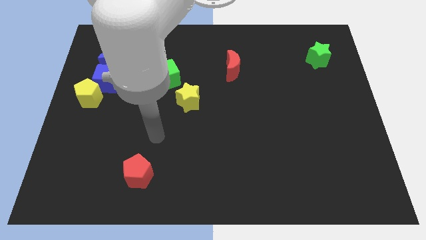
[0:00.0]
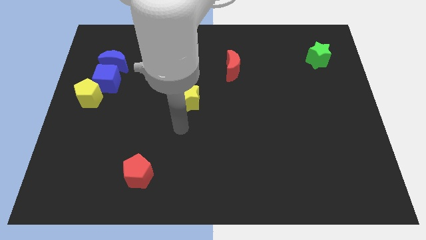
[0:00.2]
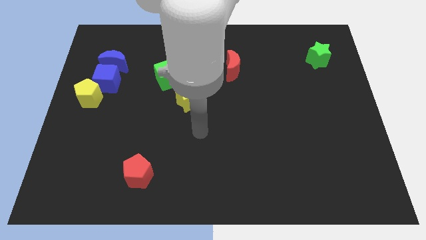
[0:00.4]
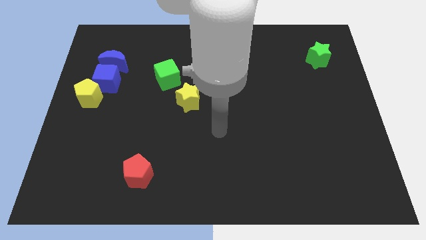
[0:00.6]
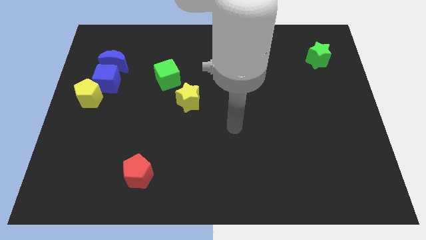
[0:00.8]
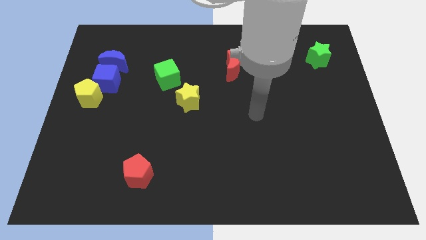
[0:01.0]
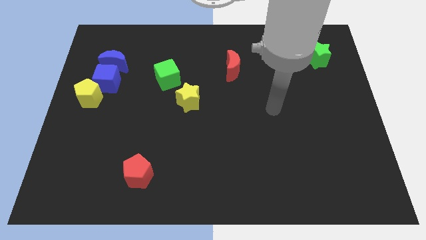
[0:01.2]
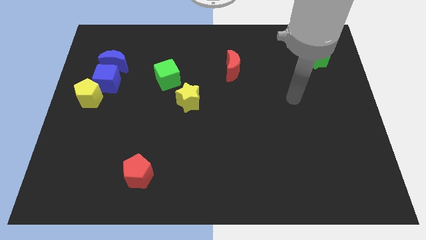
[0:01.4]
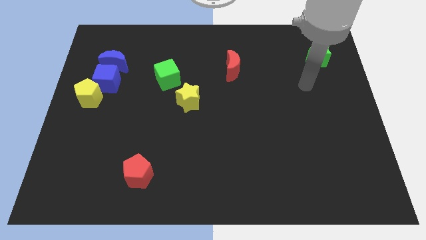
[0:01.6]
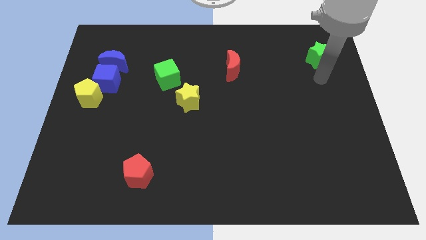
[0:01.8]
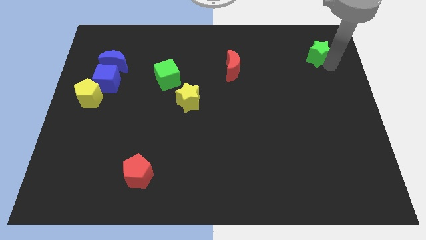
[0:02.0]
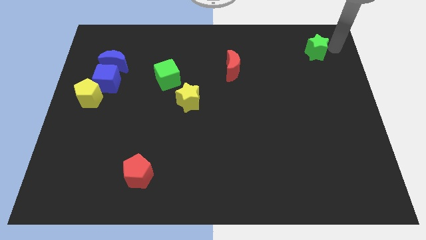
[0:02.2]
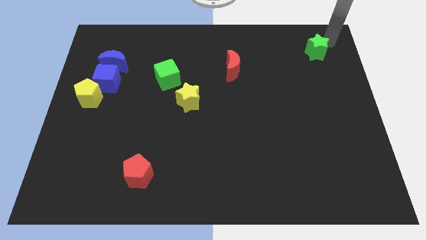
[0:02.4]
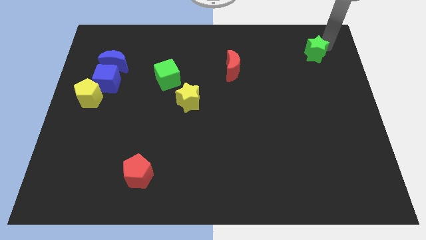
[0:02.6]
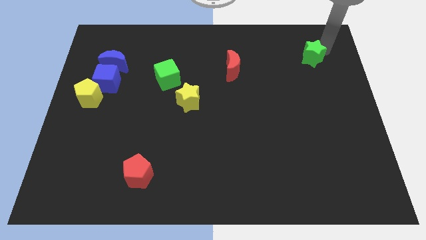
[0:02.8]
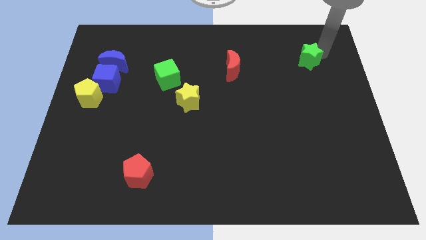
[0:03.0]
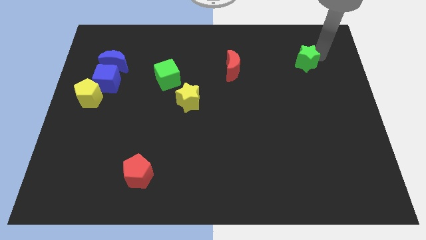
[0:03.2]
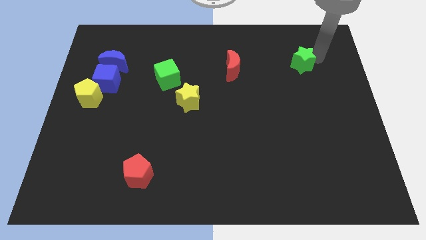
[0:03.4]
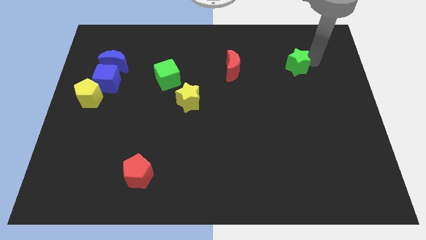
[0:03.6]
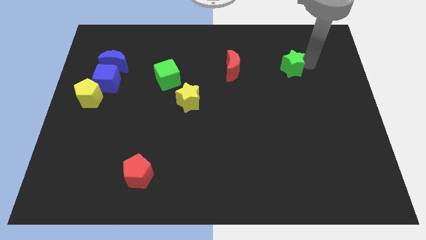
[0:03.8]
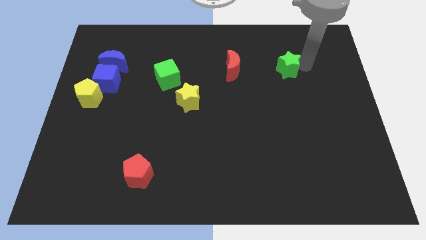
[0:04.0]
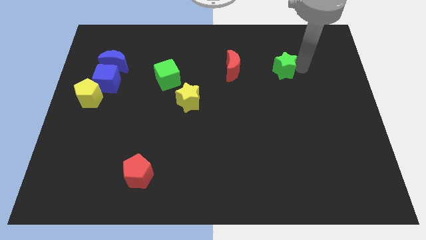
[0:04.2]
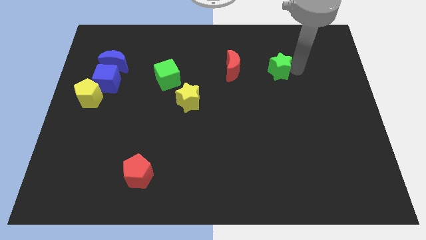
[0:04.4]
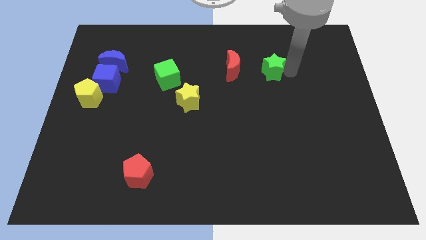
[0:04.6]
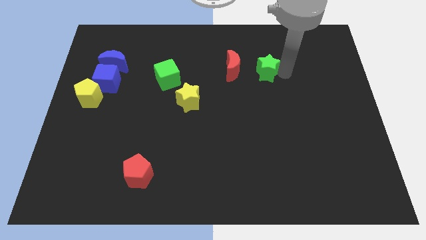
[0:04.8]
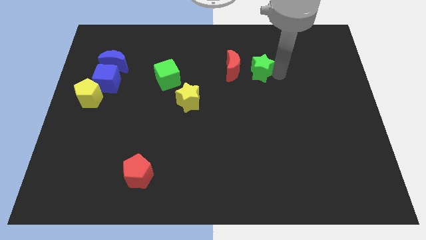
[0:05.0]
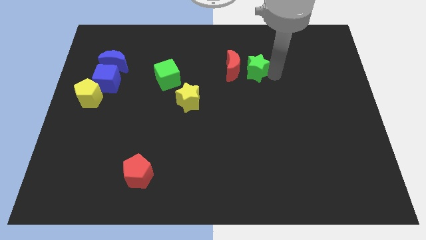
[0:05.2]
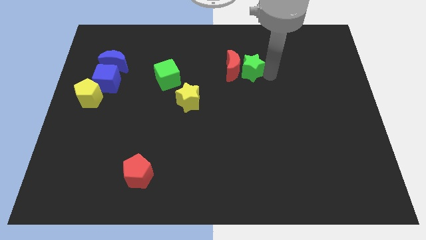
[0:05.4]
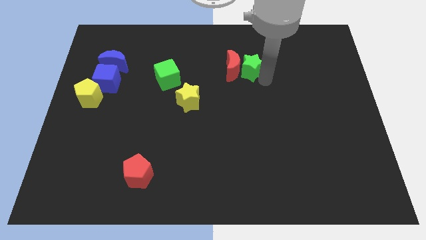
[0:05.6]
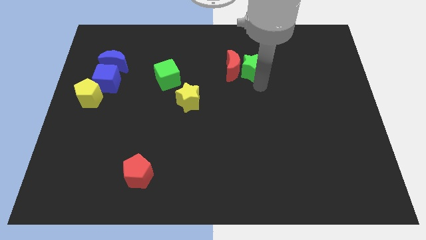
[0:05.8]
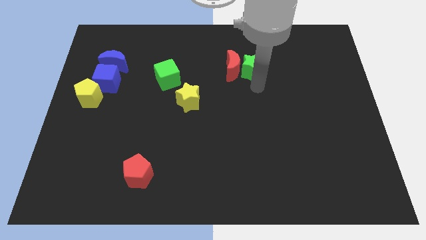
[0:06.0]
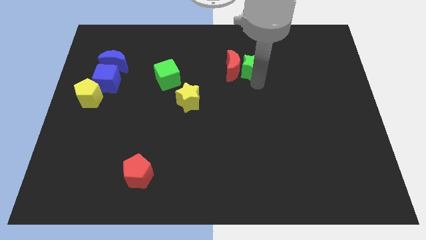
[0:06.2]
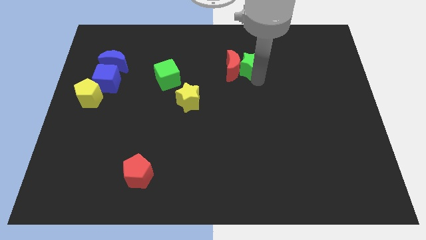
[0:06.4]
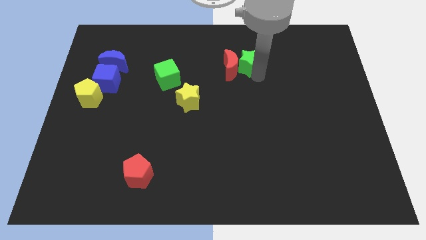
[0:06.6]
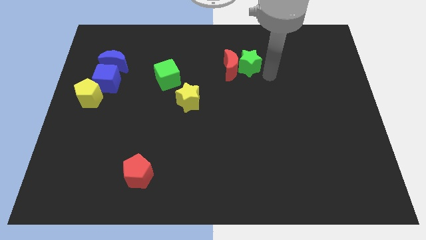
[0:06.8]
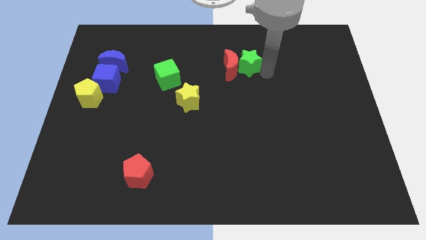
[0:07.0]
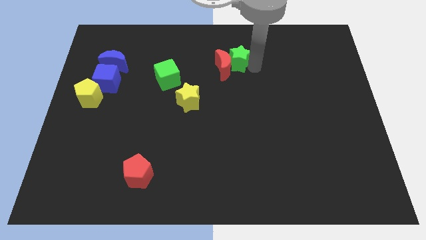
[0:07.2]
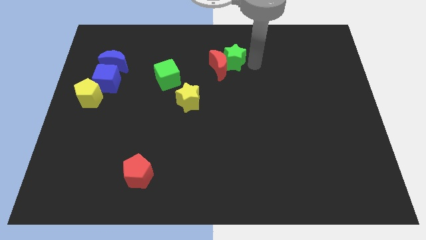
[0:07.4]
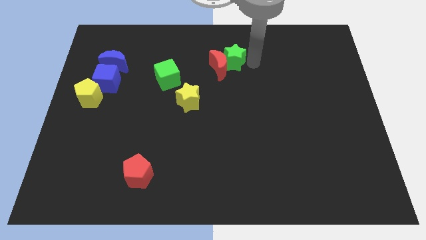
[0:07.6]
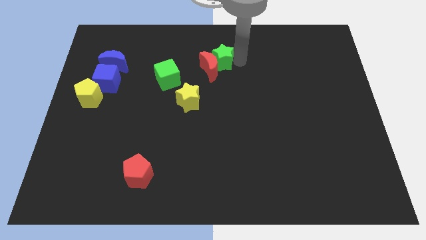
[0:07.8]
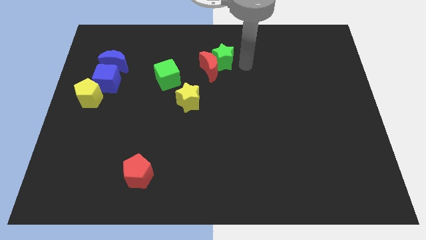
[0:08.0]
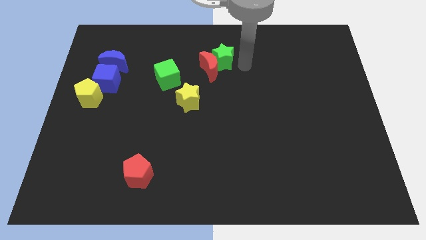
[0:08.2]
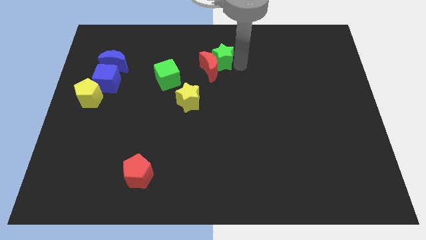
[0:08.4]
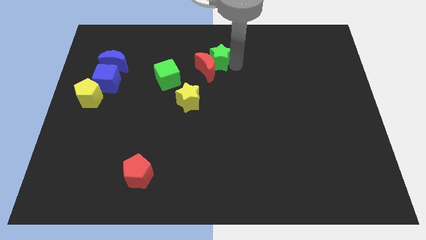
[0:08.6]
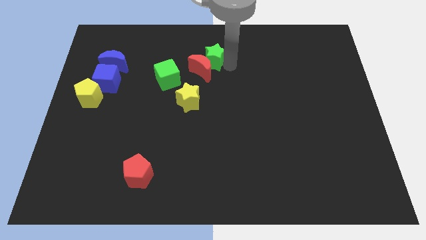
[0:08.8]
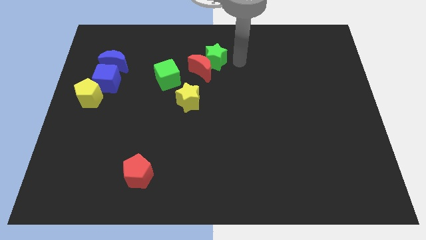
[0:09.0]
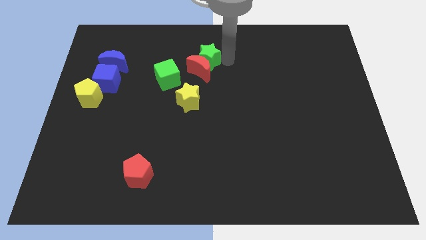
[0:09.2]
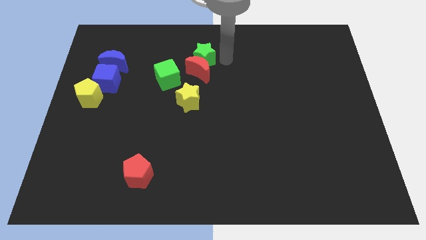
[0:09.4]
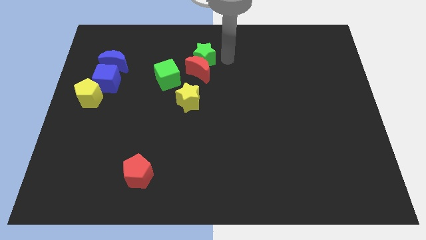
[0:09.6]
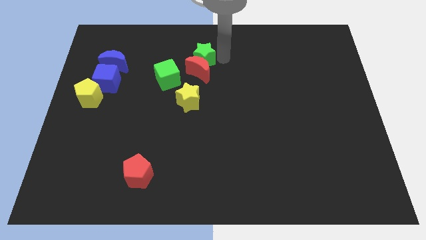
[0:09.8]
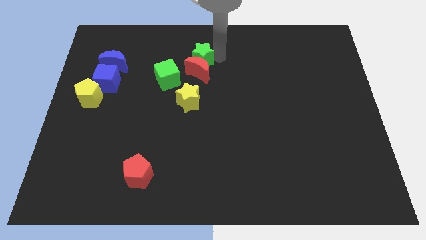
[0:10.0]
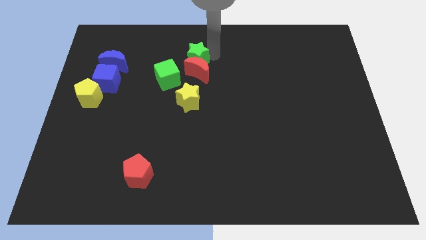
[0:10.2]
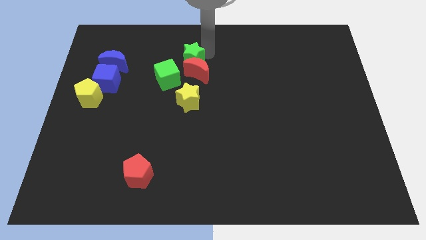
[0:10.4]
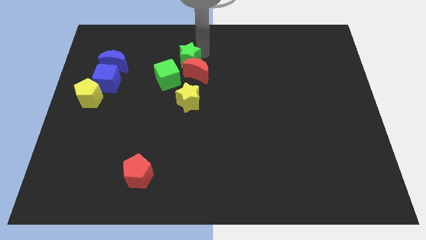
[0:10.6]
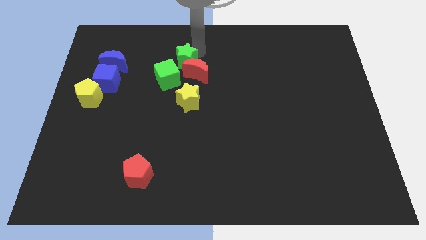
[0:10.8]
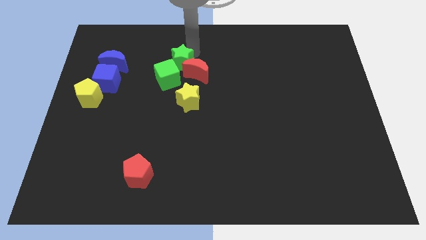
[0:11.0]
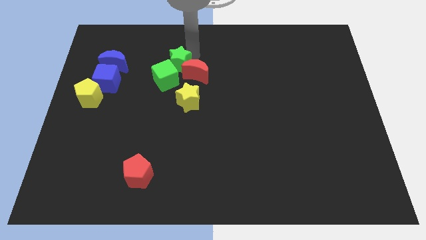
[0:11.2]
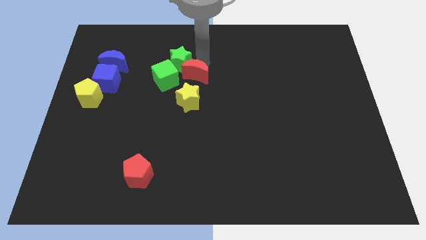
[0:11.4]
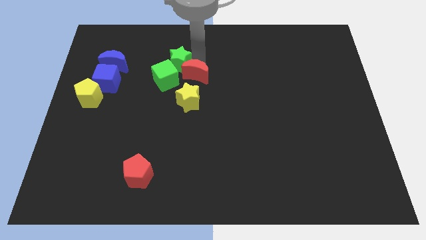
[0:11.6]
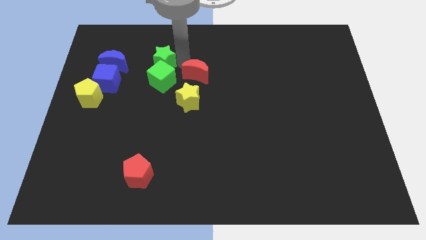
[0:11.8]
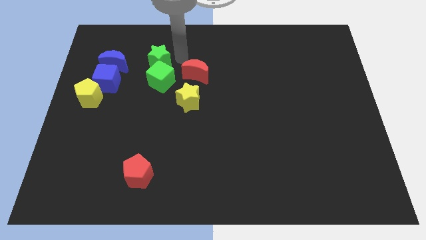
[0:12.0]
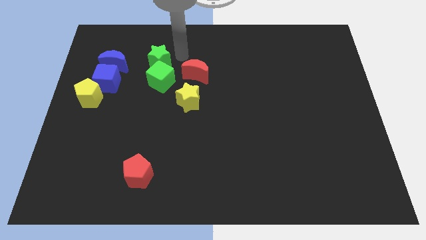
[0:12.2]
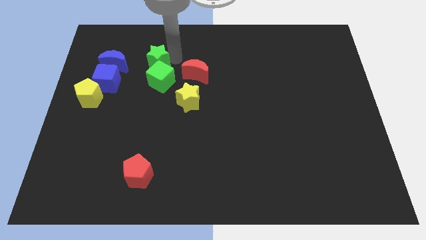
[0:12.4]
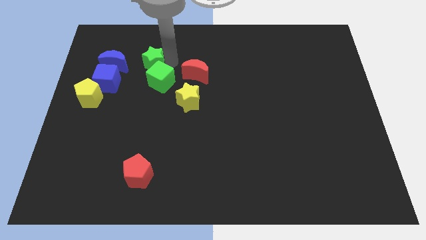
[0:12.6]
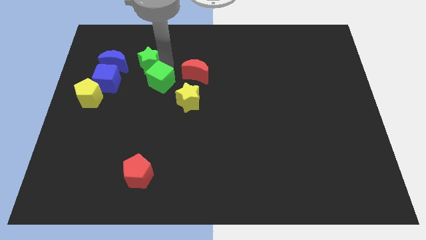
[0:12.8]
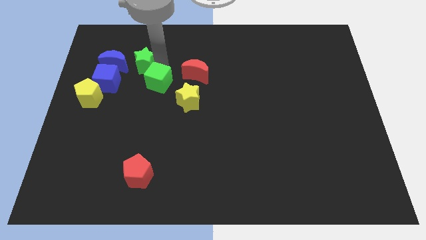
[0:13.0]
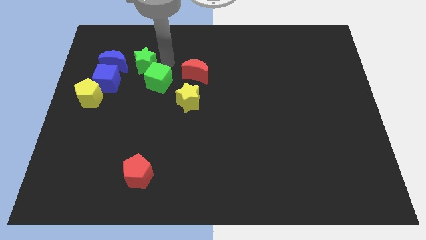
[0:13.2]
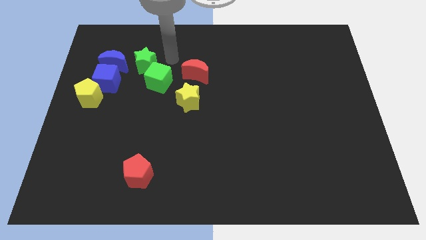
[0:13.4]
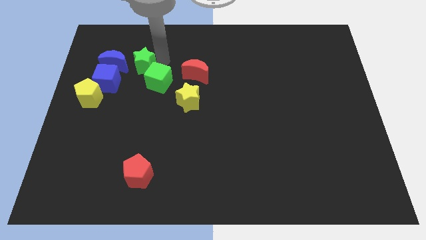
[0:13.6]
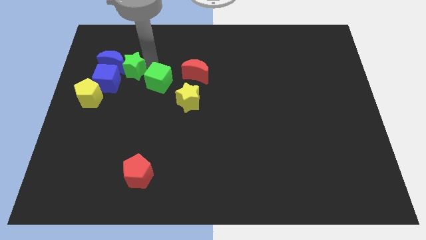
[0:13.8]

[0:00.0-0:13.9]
move the green star to the blue moon

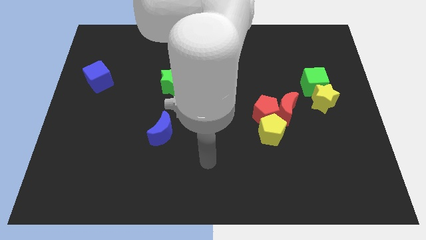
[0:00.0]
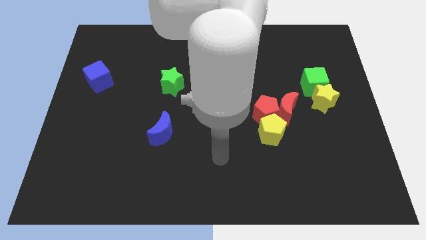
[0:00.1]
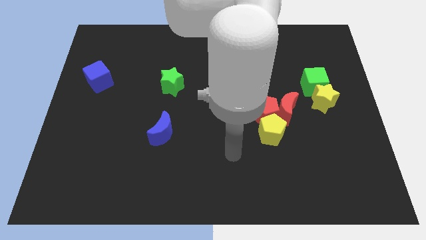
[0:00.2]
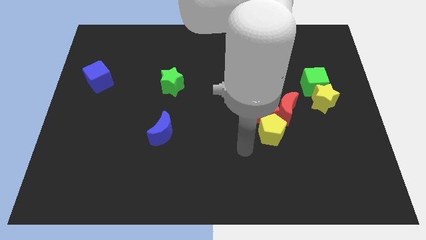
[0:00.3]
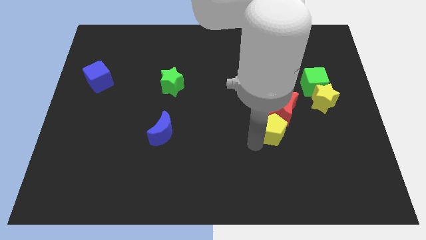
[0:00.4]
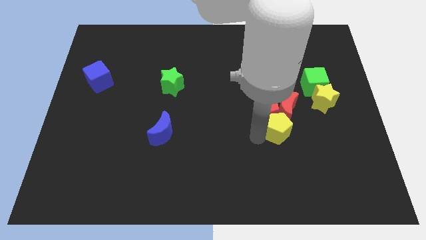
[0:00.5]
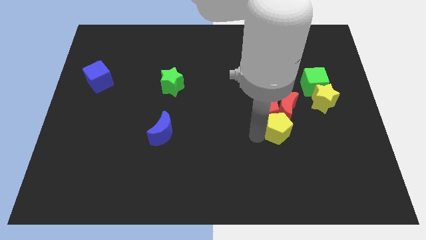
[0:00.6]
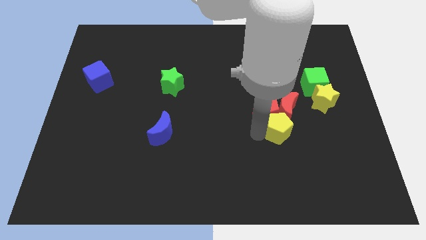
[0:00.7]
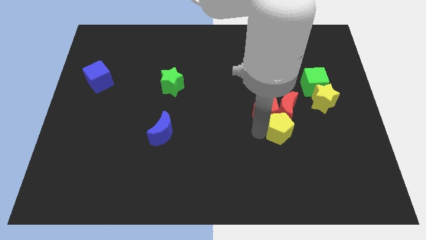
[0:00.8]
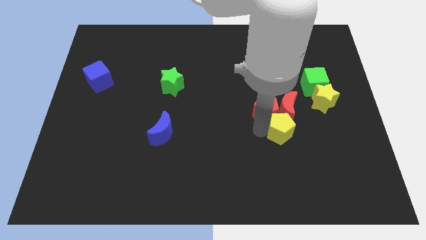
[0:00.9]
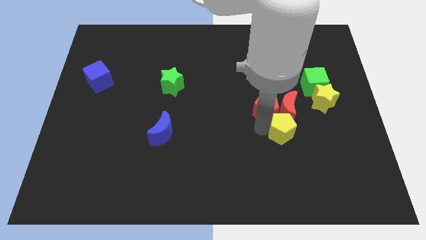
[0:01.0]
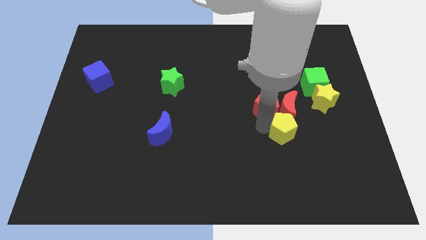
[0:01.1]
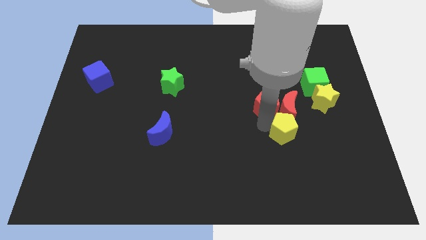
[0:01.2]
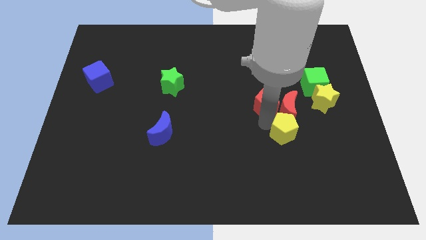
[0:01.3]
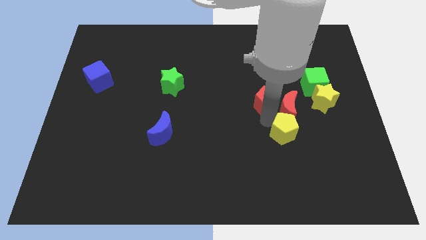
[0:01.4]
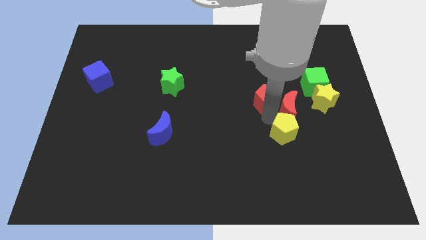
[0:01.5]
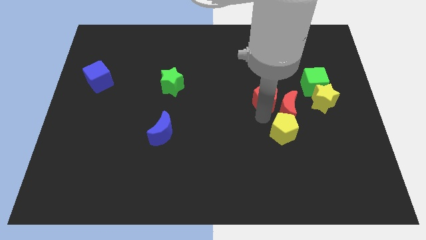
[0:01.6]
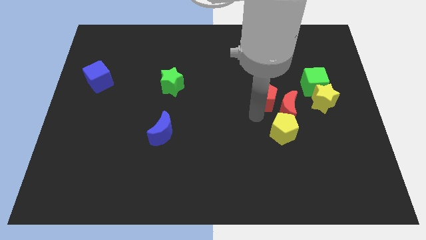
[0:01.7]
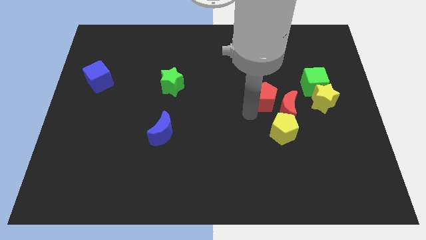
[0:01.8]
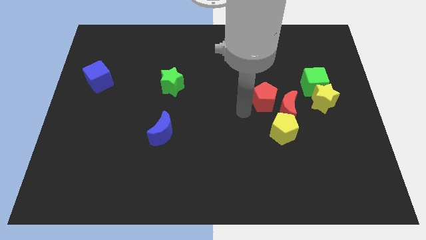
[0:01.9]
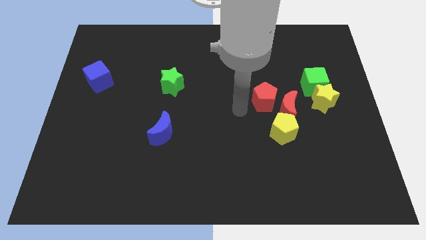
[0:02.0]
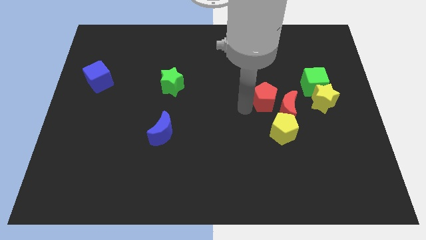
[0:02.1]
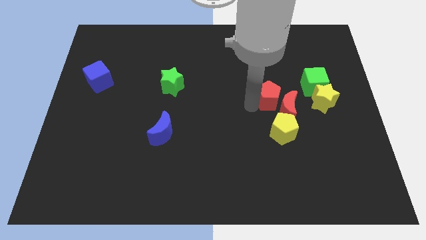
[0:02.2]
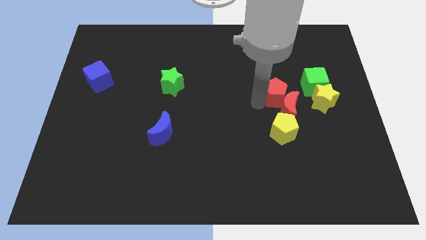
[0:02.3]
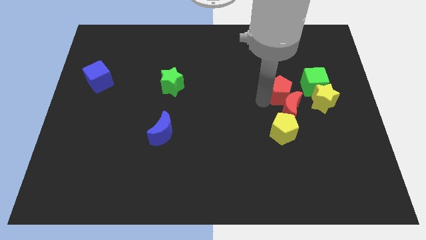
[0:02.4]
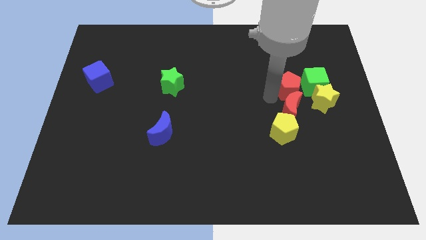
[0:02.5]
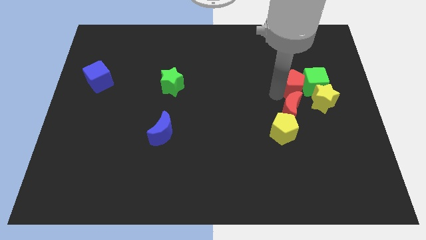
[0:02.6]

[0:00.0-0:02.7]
put the red pentagon close to the green cube
